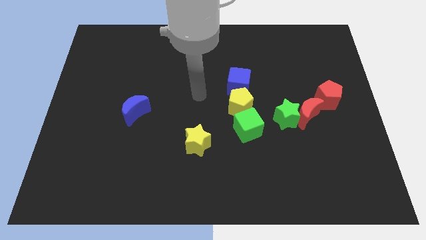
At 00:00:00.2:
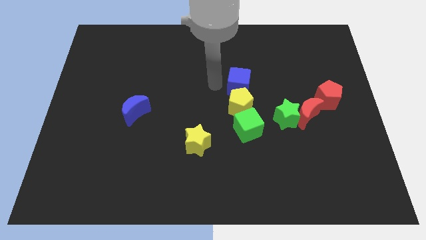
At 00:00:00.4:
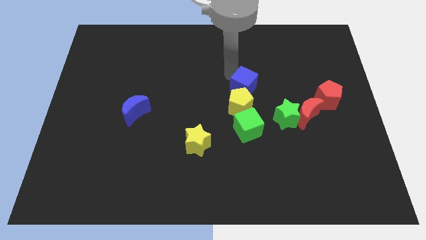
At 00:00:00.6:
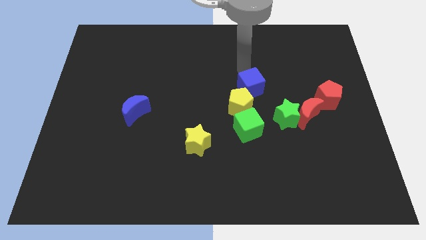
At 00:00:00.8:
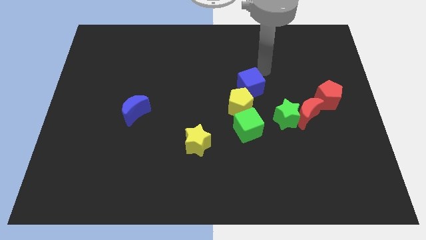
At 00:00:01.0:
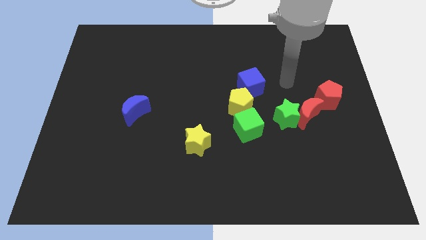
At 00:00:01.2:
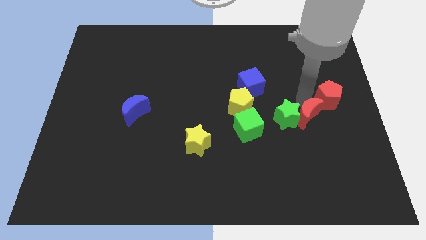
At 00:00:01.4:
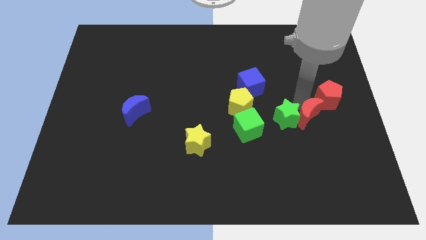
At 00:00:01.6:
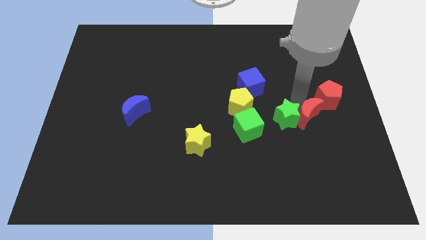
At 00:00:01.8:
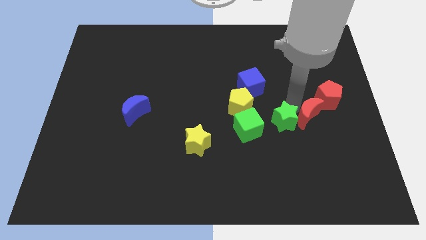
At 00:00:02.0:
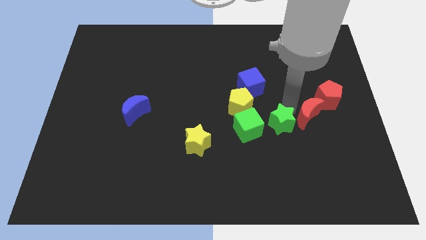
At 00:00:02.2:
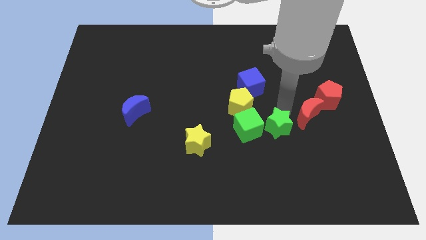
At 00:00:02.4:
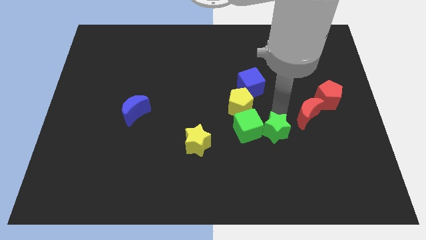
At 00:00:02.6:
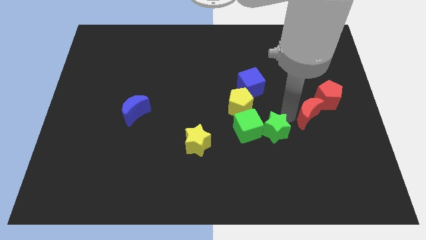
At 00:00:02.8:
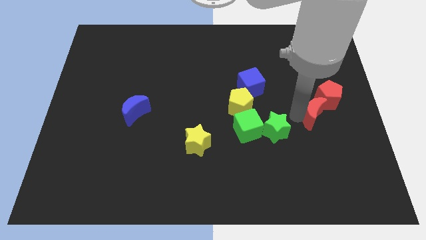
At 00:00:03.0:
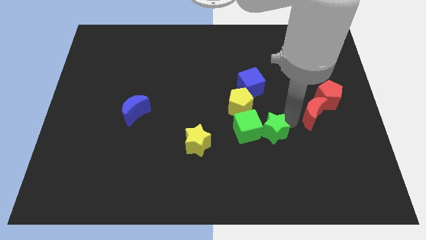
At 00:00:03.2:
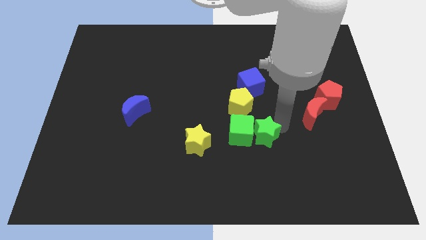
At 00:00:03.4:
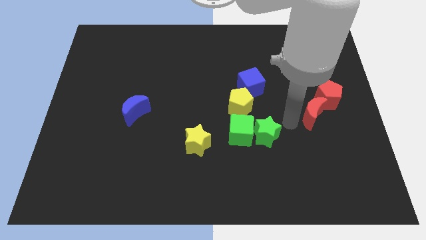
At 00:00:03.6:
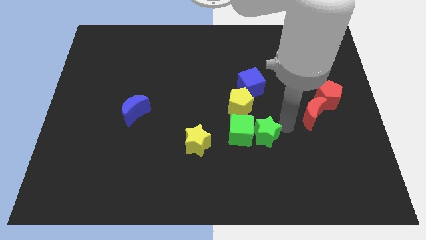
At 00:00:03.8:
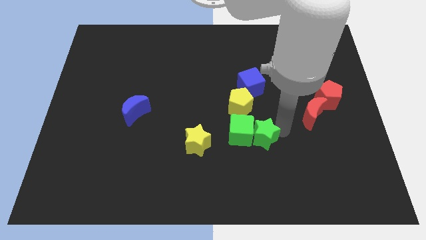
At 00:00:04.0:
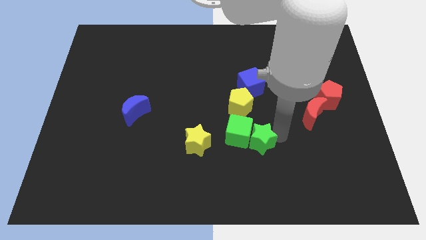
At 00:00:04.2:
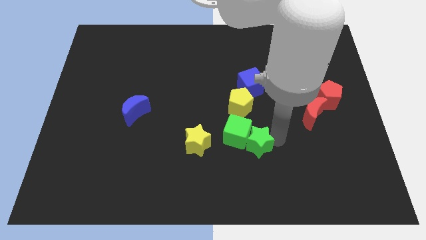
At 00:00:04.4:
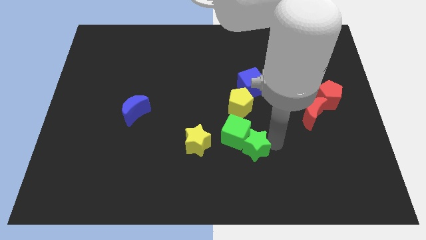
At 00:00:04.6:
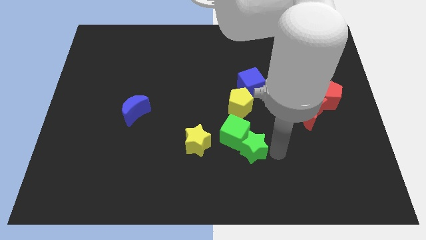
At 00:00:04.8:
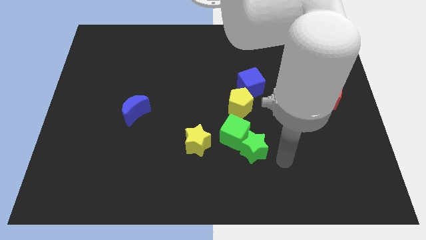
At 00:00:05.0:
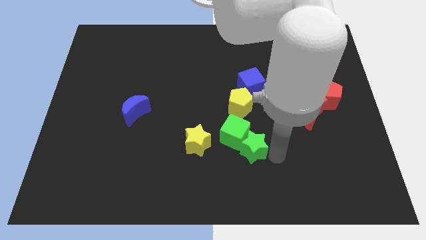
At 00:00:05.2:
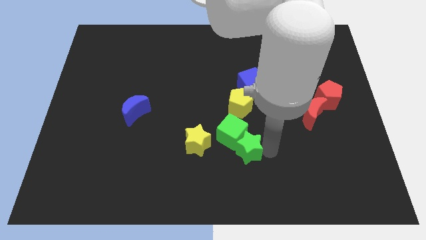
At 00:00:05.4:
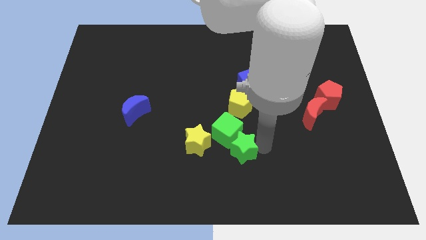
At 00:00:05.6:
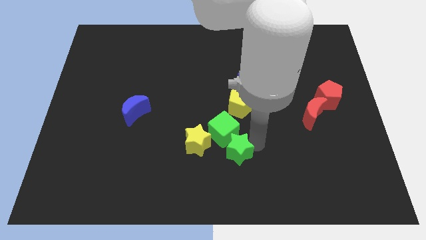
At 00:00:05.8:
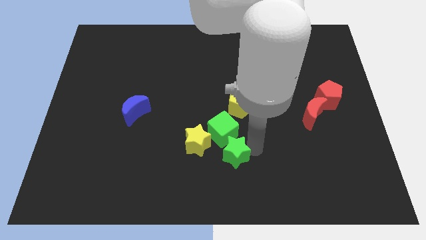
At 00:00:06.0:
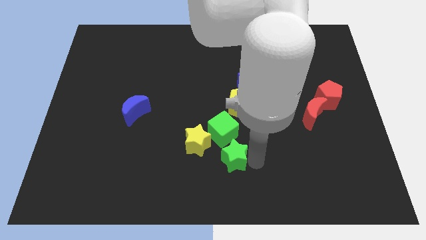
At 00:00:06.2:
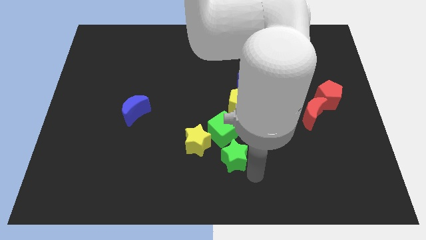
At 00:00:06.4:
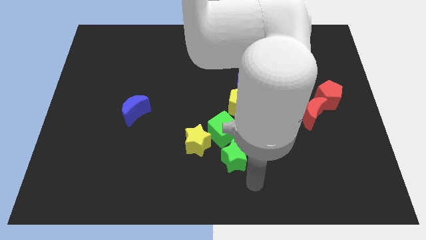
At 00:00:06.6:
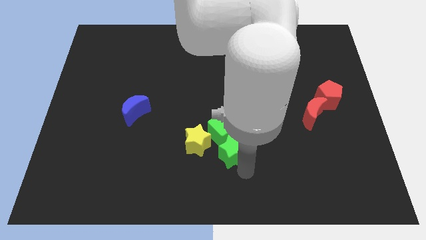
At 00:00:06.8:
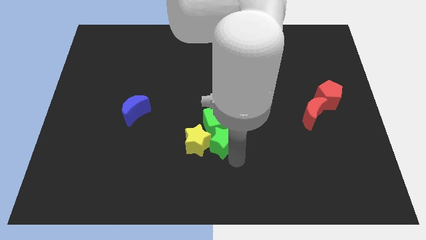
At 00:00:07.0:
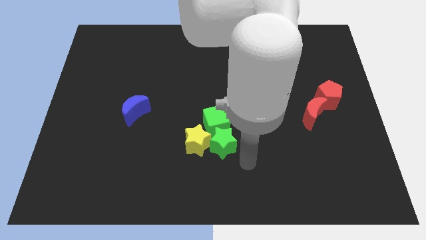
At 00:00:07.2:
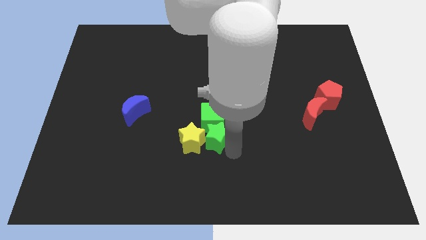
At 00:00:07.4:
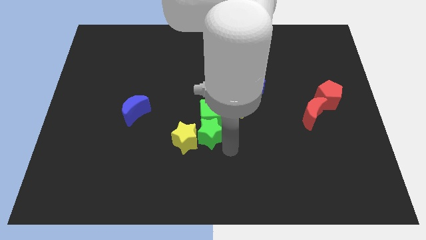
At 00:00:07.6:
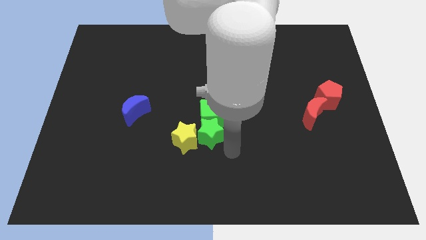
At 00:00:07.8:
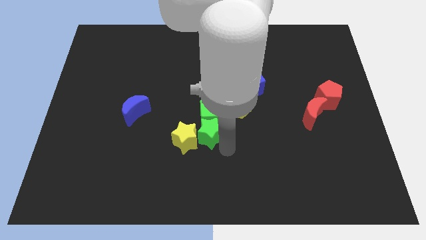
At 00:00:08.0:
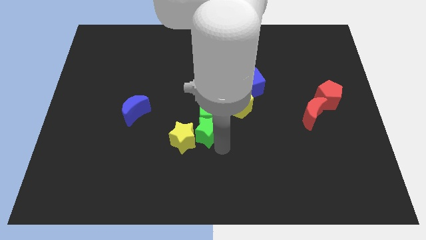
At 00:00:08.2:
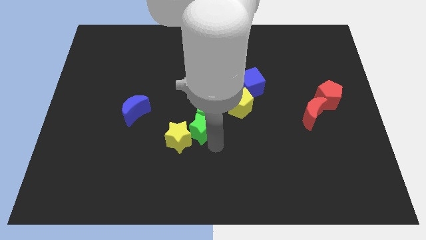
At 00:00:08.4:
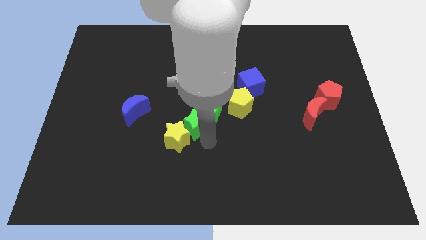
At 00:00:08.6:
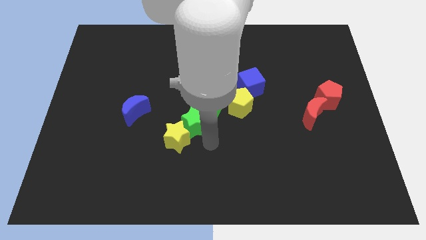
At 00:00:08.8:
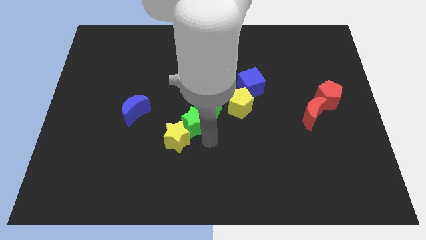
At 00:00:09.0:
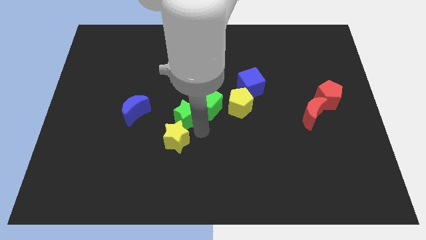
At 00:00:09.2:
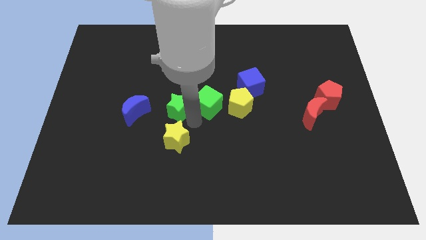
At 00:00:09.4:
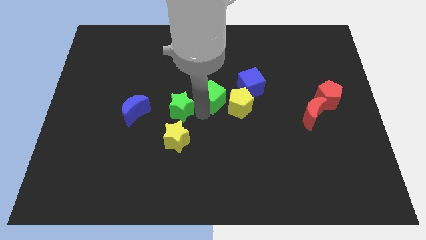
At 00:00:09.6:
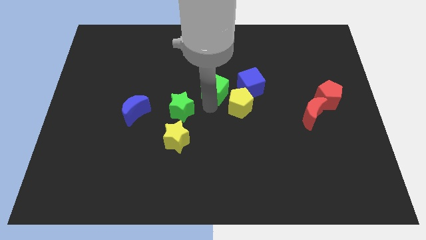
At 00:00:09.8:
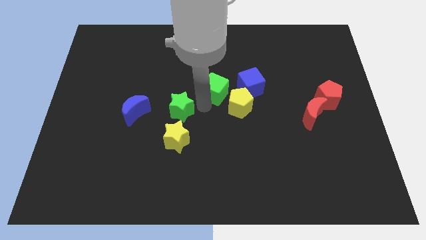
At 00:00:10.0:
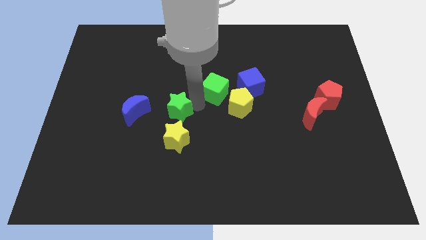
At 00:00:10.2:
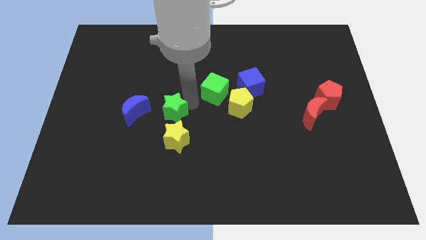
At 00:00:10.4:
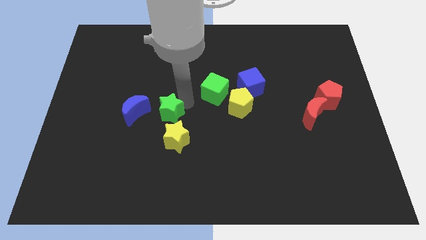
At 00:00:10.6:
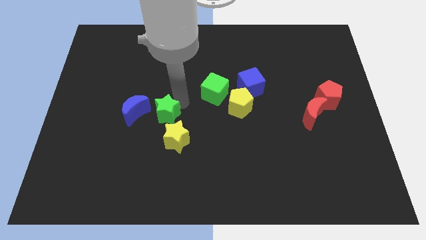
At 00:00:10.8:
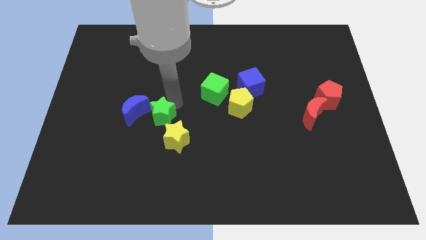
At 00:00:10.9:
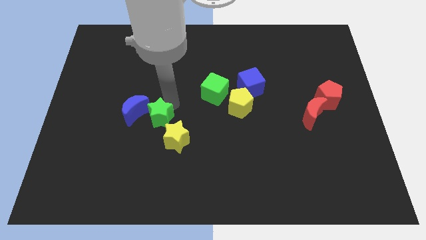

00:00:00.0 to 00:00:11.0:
slide the green star close to the blue moon

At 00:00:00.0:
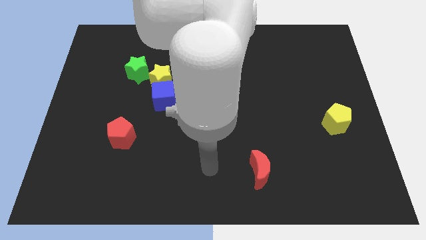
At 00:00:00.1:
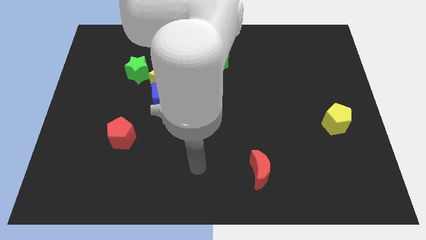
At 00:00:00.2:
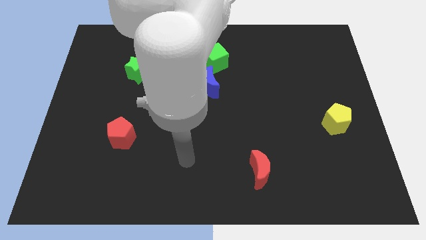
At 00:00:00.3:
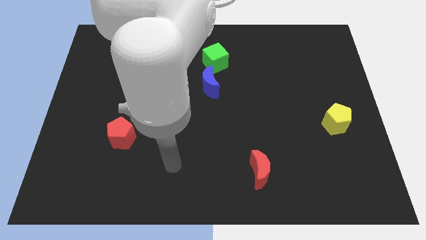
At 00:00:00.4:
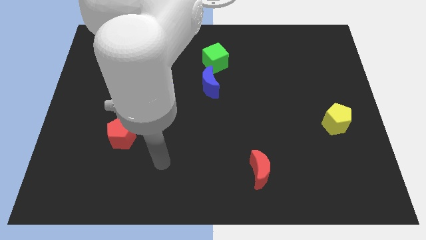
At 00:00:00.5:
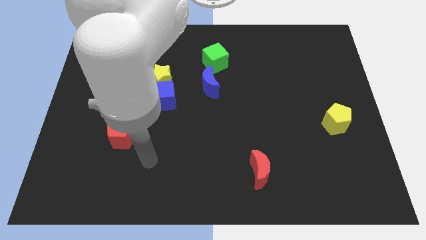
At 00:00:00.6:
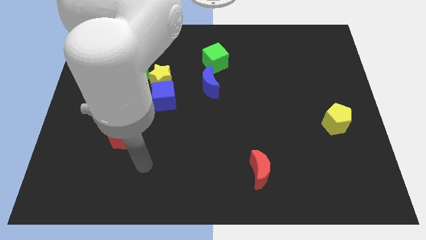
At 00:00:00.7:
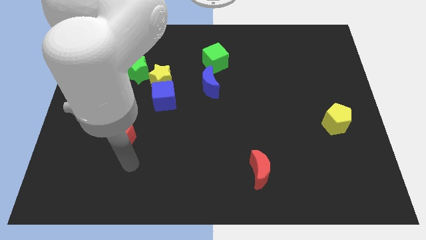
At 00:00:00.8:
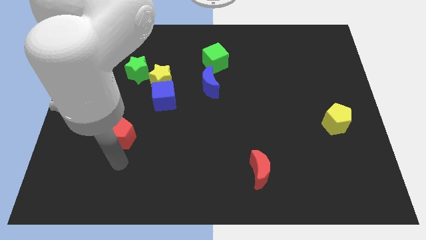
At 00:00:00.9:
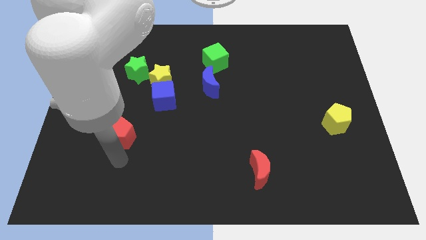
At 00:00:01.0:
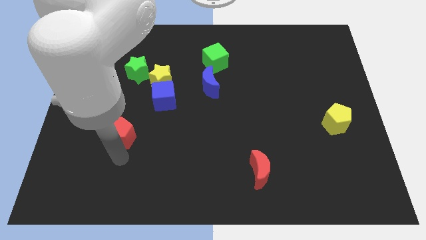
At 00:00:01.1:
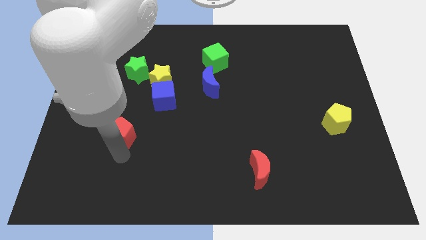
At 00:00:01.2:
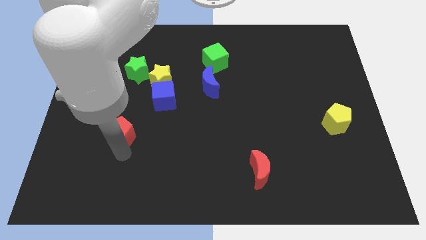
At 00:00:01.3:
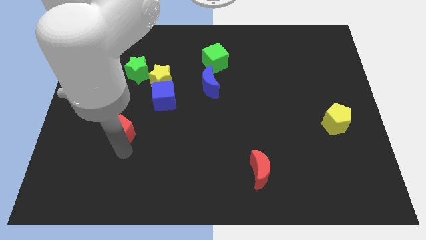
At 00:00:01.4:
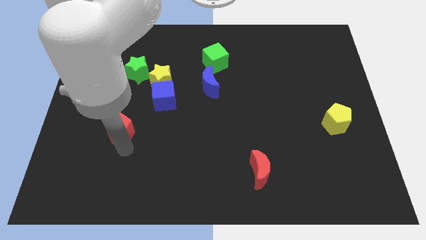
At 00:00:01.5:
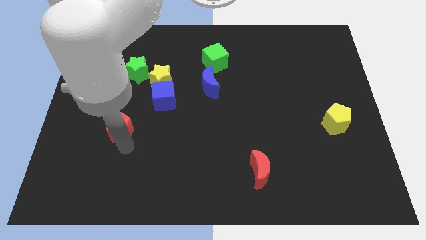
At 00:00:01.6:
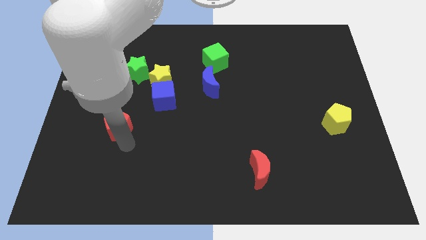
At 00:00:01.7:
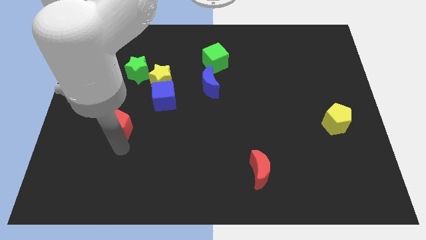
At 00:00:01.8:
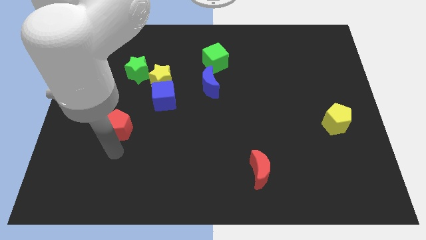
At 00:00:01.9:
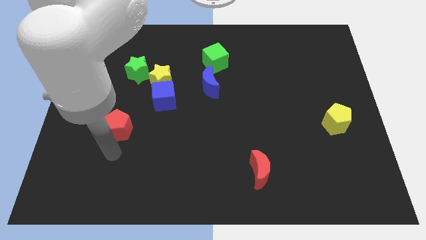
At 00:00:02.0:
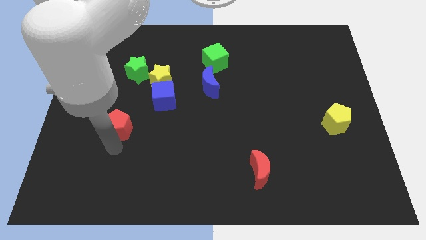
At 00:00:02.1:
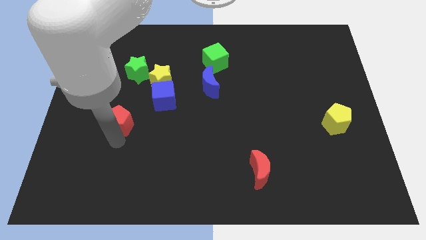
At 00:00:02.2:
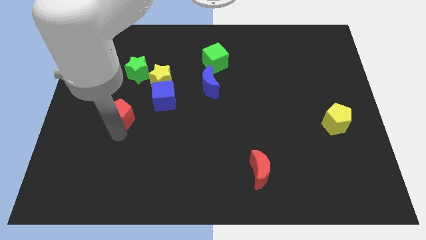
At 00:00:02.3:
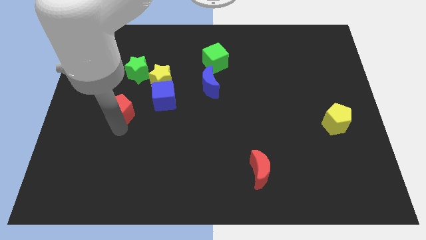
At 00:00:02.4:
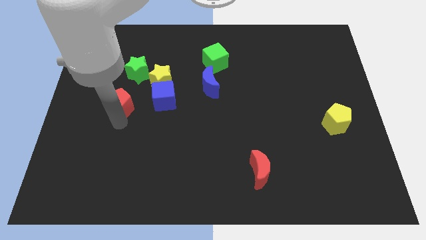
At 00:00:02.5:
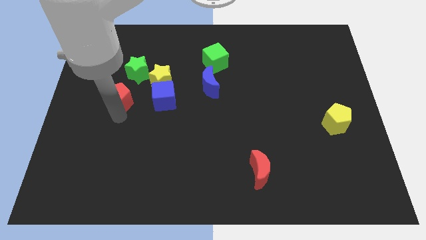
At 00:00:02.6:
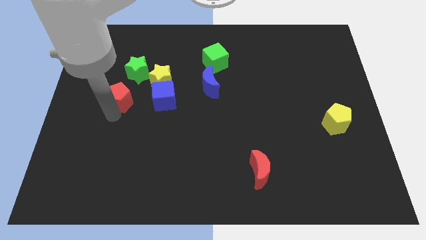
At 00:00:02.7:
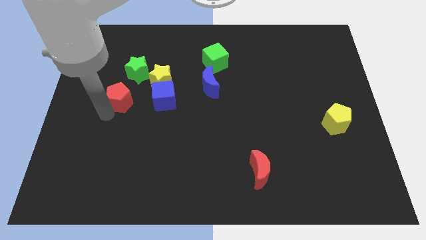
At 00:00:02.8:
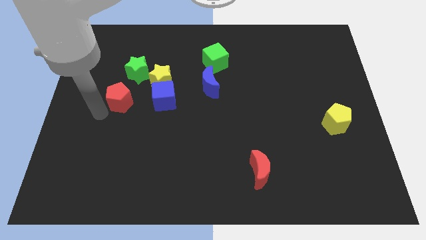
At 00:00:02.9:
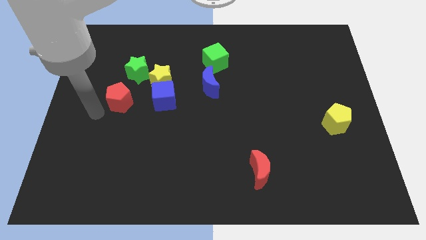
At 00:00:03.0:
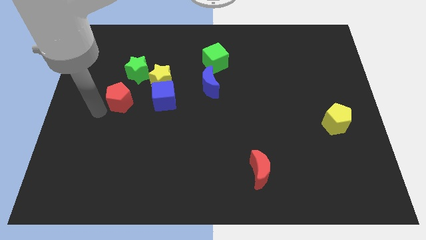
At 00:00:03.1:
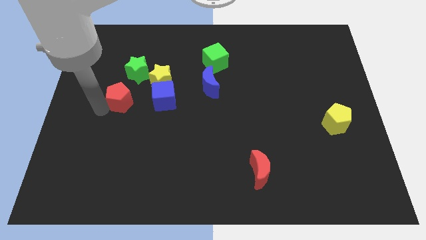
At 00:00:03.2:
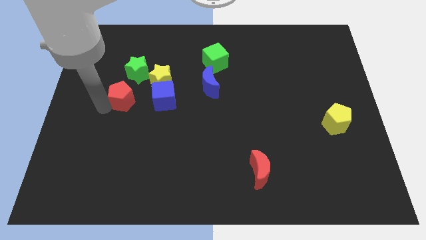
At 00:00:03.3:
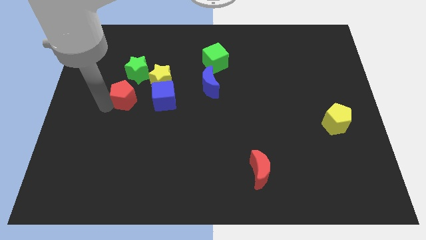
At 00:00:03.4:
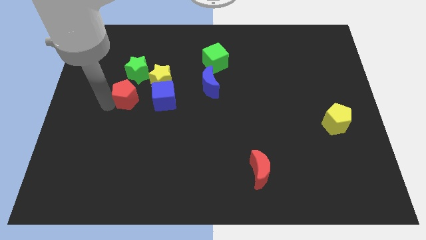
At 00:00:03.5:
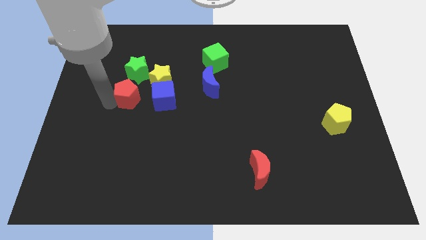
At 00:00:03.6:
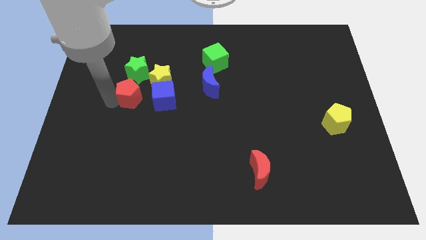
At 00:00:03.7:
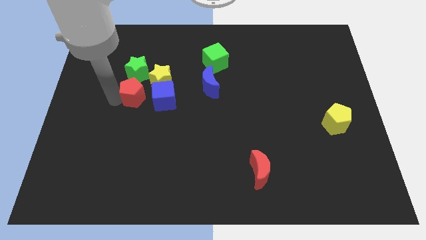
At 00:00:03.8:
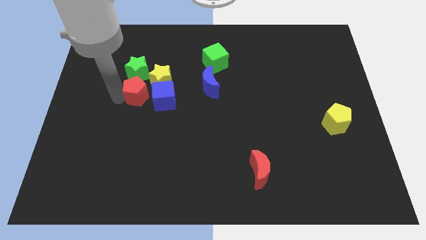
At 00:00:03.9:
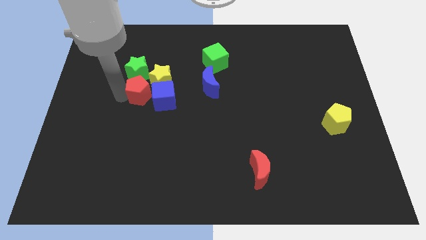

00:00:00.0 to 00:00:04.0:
slide the red pentagon next to the yellow star
